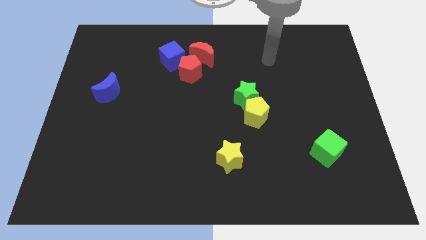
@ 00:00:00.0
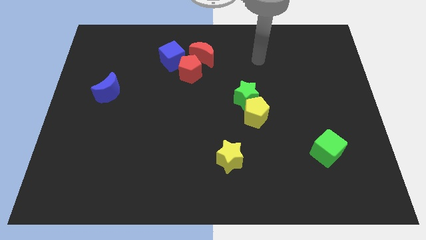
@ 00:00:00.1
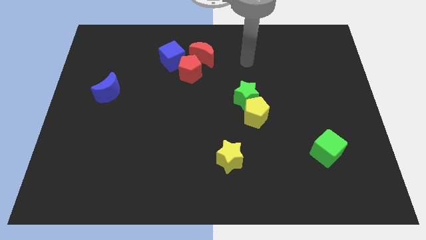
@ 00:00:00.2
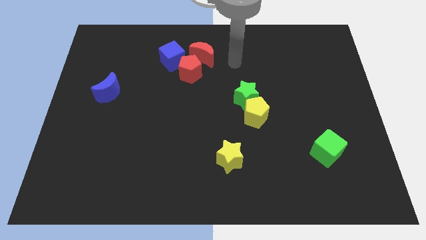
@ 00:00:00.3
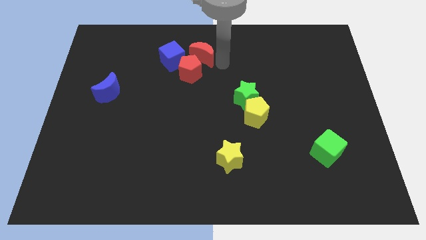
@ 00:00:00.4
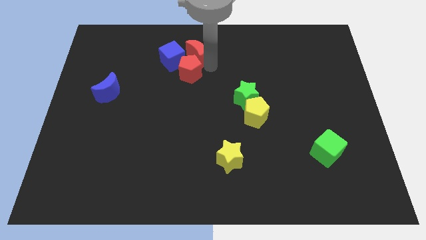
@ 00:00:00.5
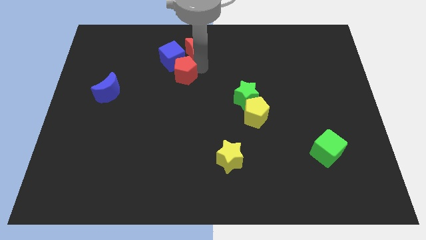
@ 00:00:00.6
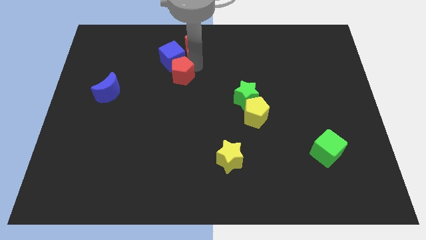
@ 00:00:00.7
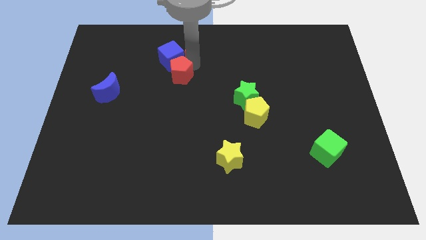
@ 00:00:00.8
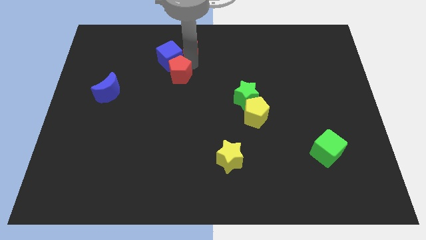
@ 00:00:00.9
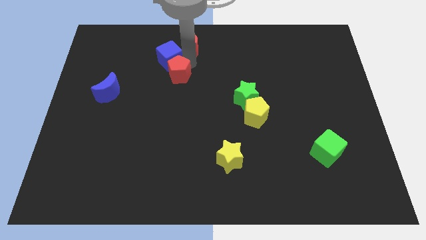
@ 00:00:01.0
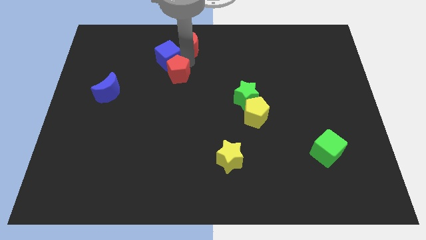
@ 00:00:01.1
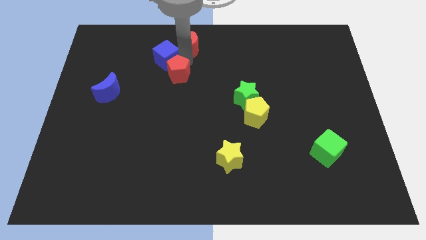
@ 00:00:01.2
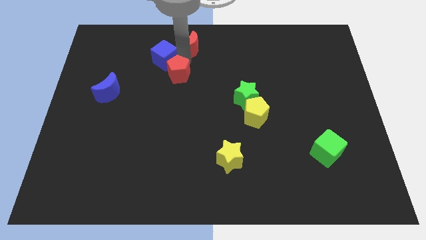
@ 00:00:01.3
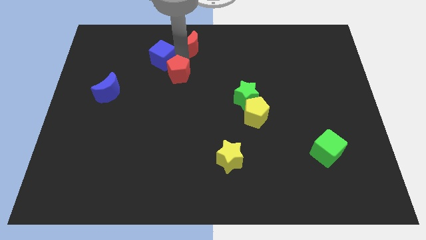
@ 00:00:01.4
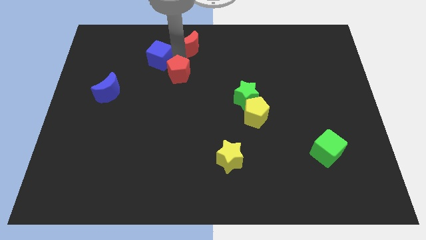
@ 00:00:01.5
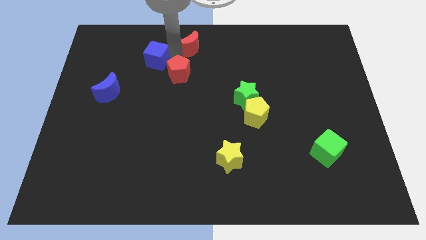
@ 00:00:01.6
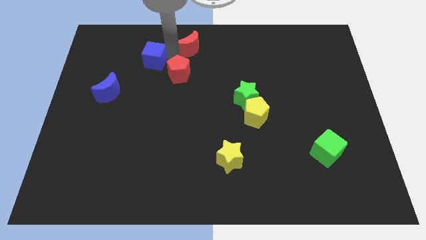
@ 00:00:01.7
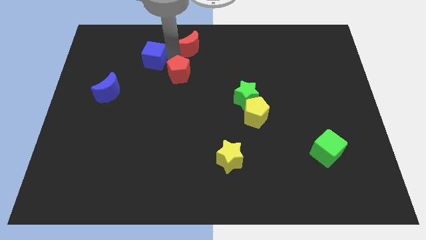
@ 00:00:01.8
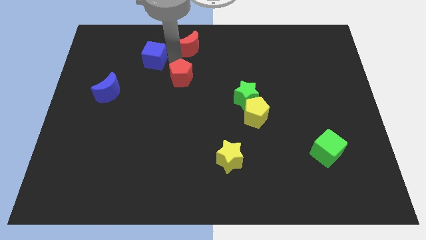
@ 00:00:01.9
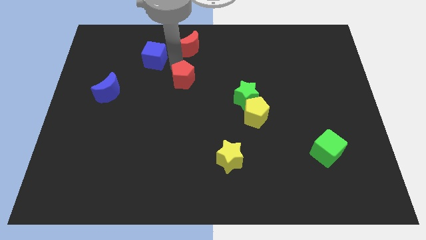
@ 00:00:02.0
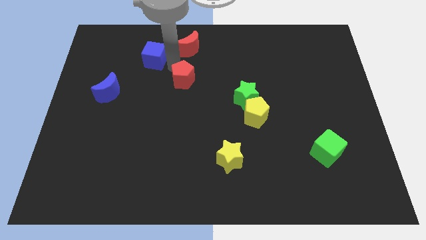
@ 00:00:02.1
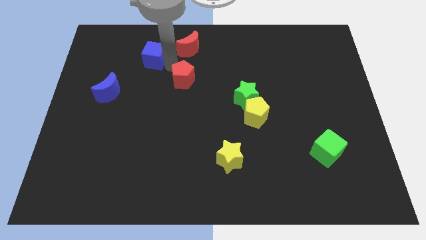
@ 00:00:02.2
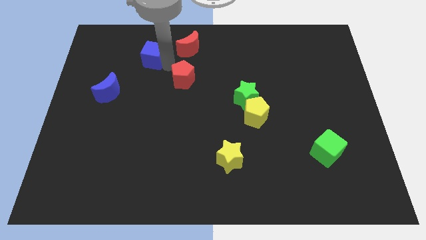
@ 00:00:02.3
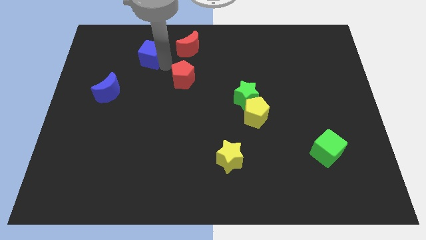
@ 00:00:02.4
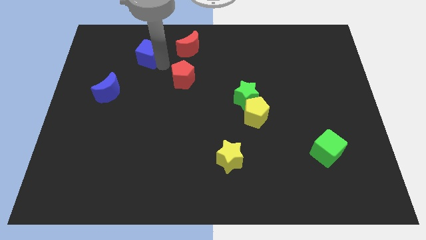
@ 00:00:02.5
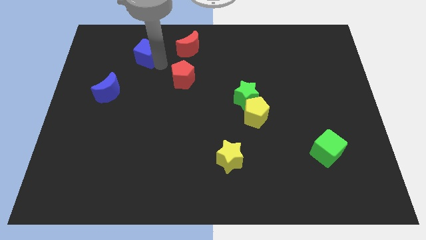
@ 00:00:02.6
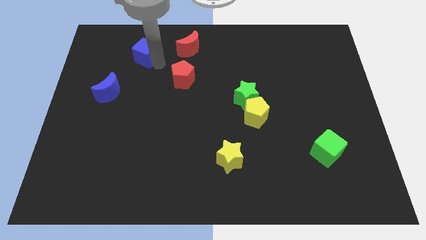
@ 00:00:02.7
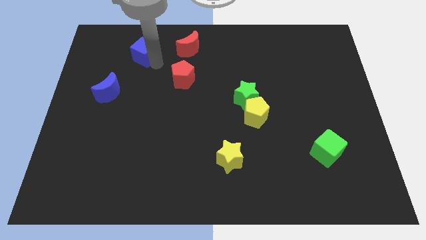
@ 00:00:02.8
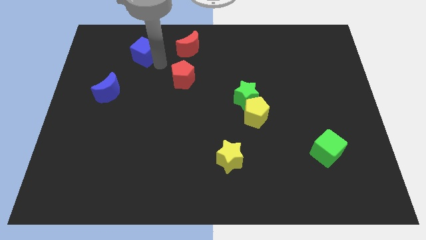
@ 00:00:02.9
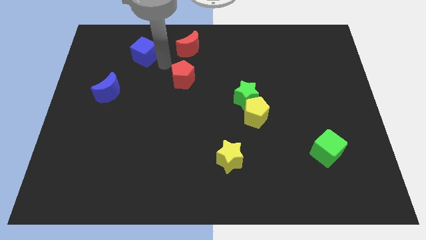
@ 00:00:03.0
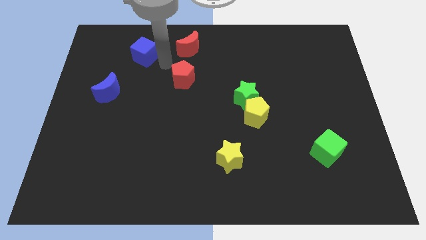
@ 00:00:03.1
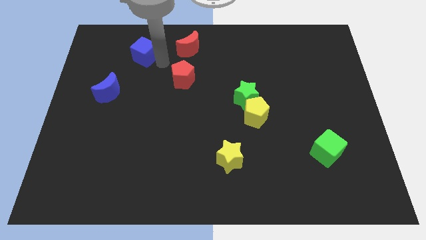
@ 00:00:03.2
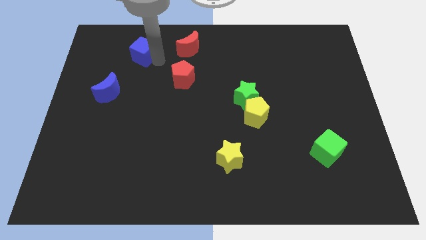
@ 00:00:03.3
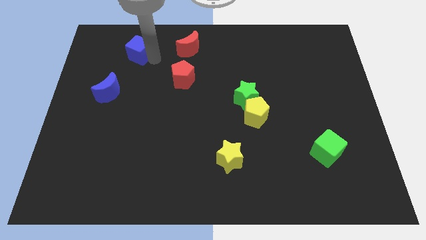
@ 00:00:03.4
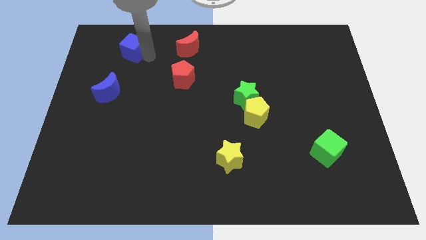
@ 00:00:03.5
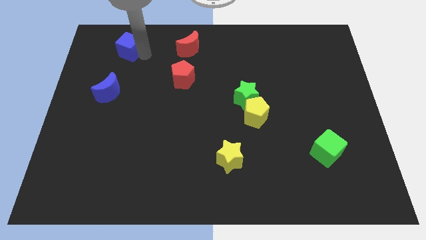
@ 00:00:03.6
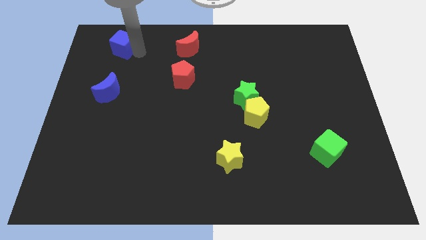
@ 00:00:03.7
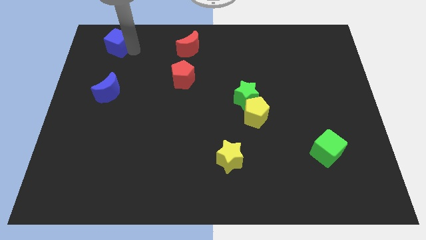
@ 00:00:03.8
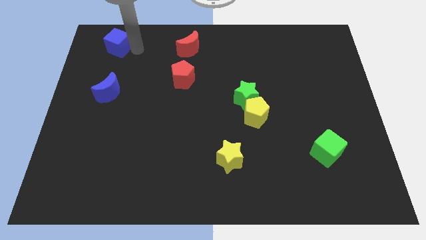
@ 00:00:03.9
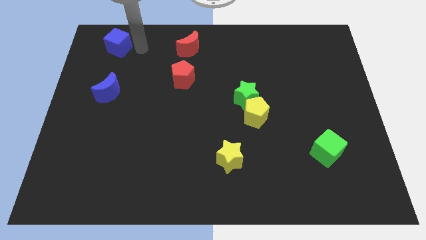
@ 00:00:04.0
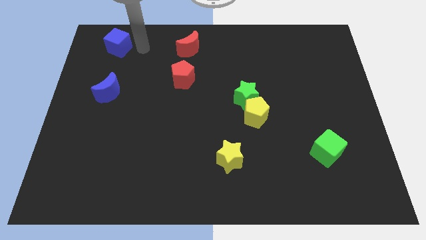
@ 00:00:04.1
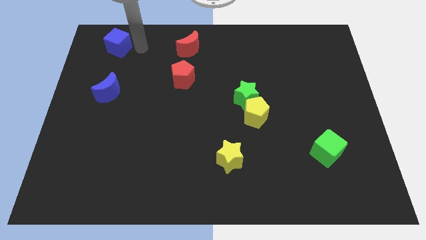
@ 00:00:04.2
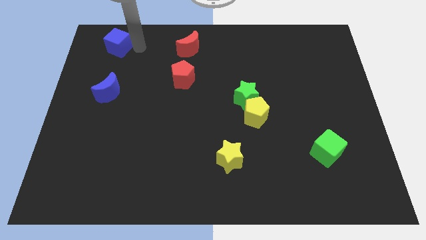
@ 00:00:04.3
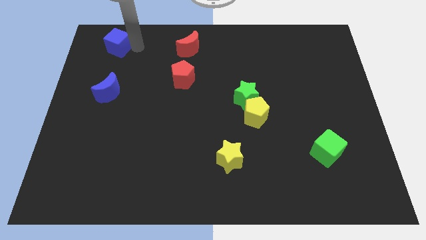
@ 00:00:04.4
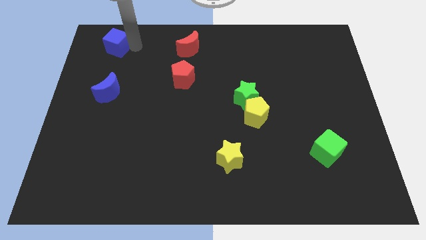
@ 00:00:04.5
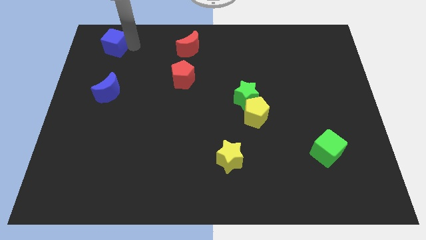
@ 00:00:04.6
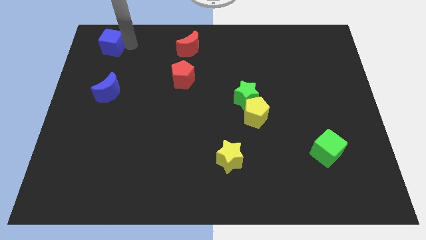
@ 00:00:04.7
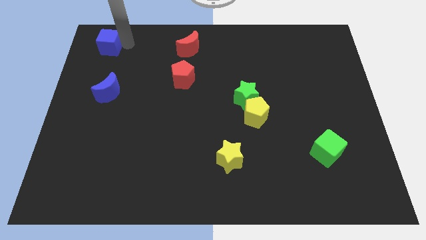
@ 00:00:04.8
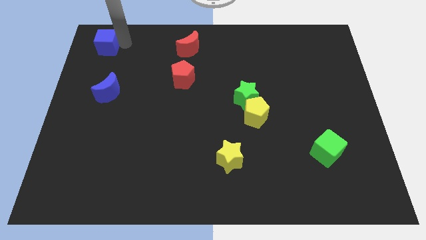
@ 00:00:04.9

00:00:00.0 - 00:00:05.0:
slide the blue cube to the top left
